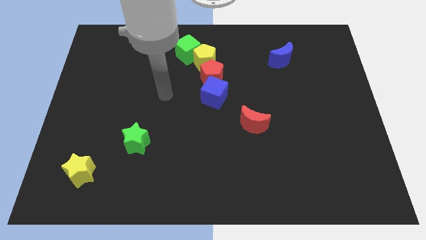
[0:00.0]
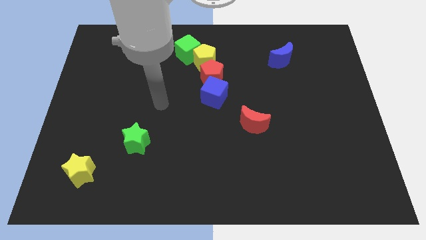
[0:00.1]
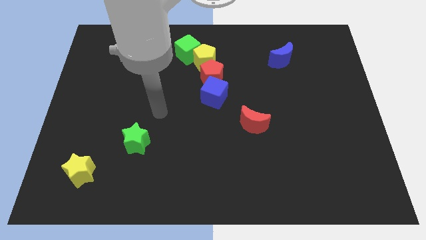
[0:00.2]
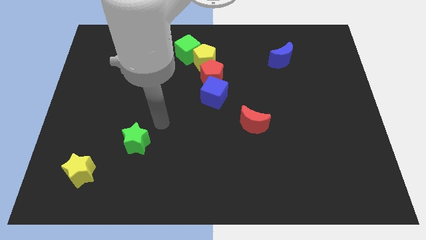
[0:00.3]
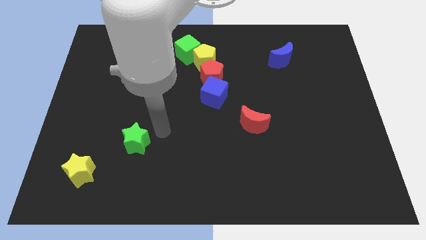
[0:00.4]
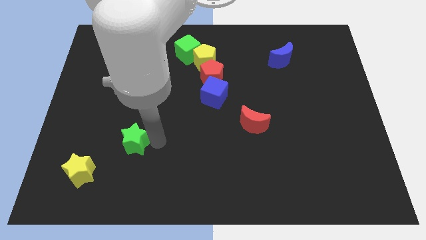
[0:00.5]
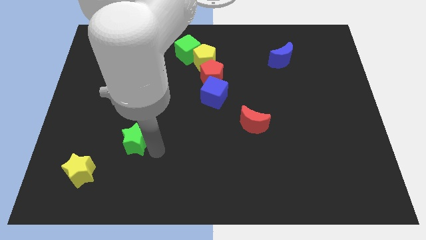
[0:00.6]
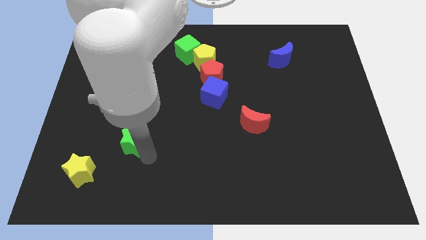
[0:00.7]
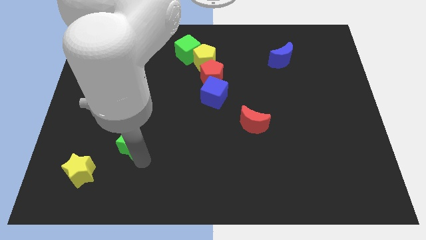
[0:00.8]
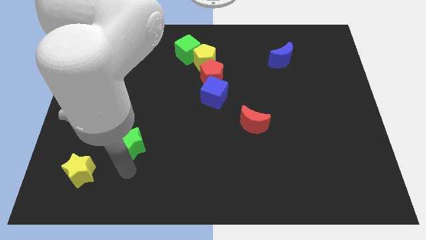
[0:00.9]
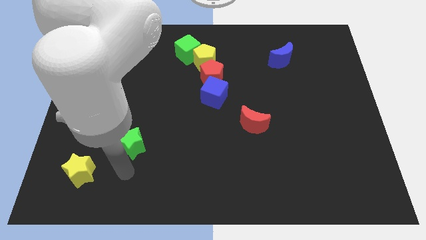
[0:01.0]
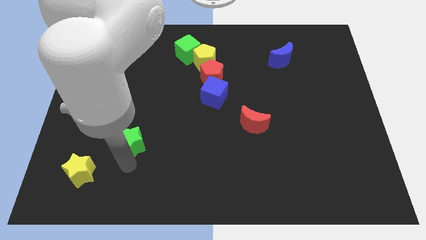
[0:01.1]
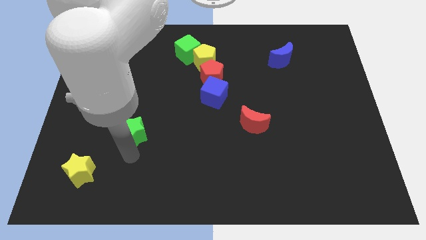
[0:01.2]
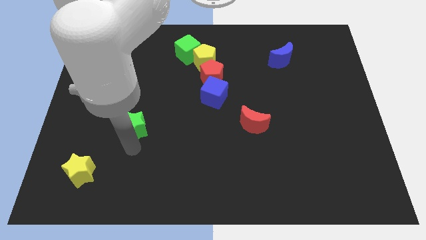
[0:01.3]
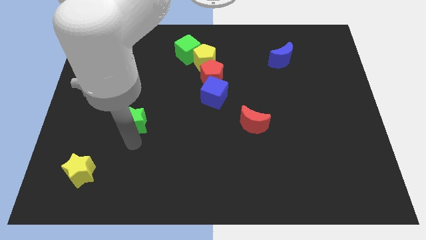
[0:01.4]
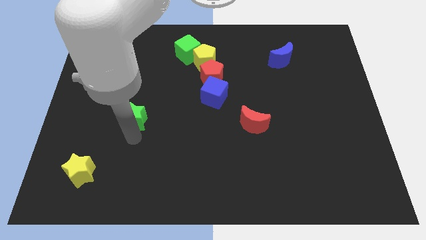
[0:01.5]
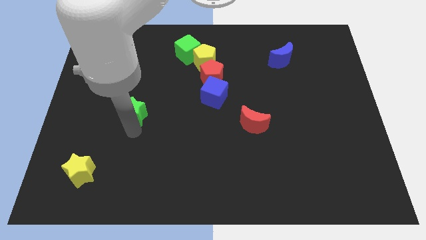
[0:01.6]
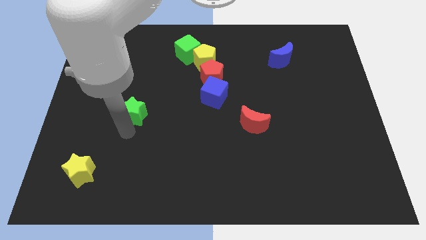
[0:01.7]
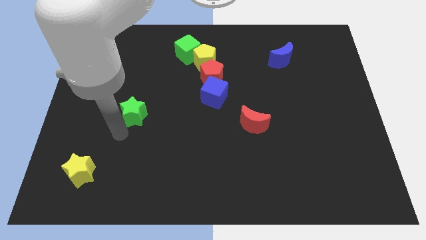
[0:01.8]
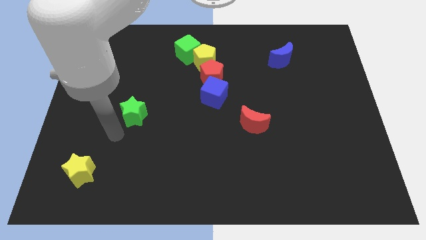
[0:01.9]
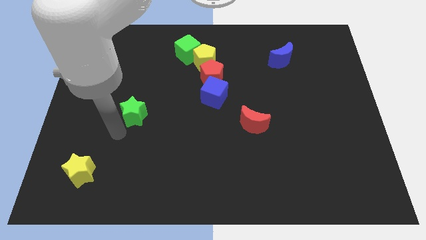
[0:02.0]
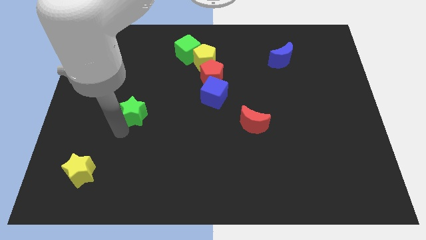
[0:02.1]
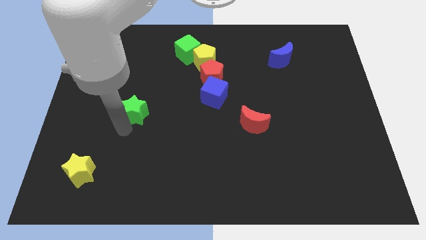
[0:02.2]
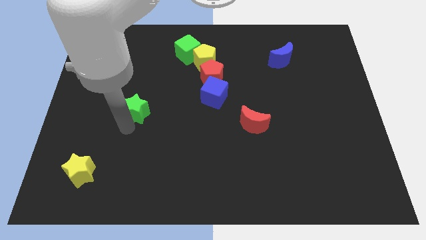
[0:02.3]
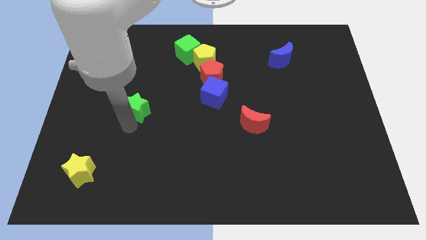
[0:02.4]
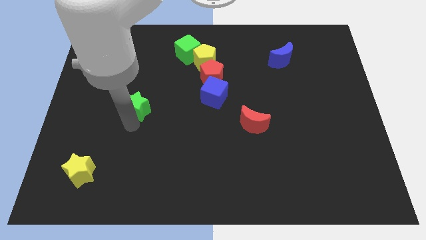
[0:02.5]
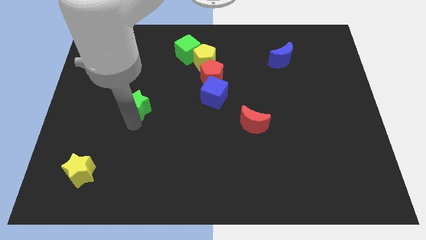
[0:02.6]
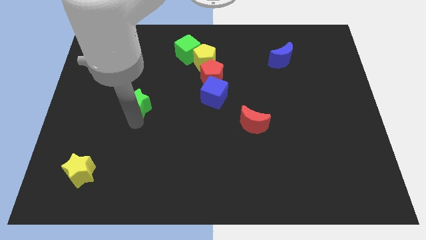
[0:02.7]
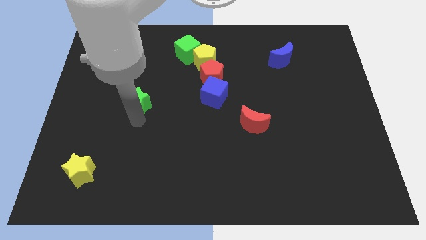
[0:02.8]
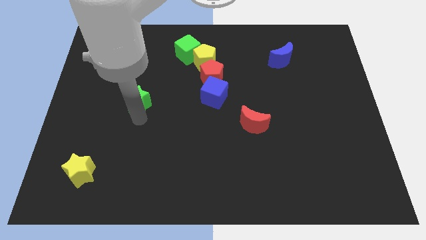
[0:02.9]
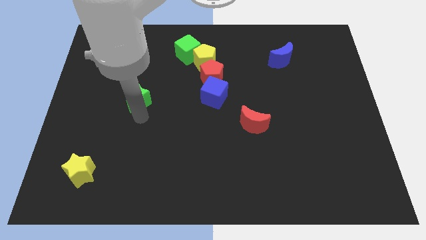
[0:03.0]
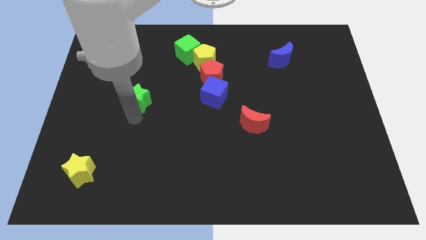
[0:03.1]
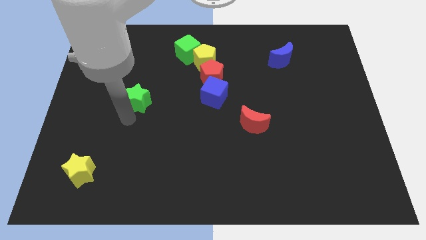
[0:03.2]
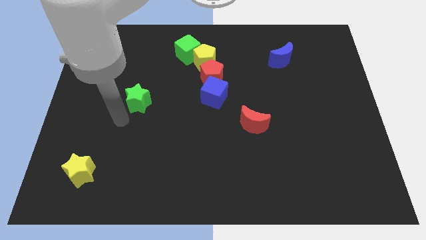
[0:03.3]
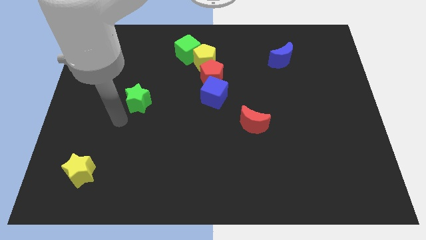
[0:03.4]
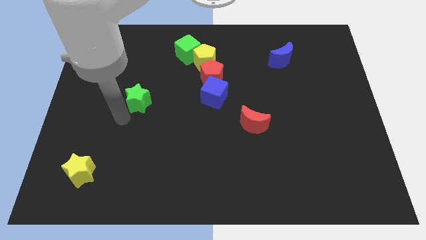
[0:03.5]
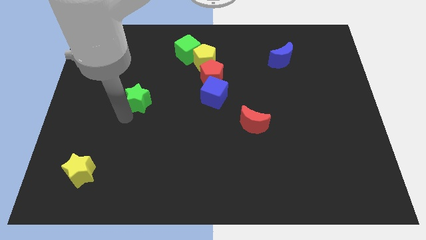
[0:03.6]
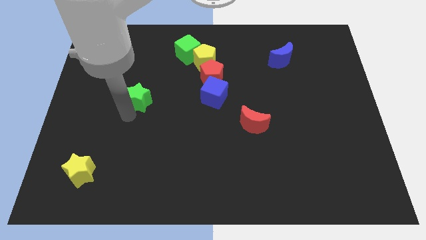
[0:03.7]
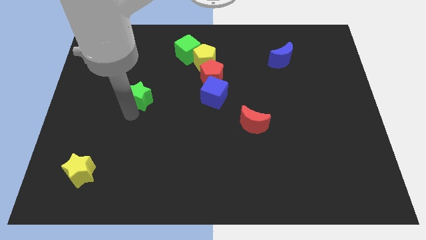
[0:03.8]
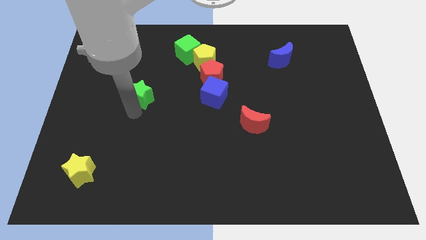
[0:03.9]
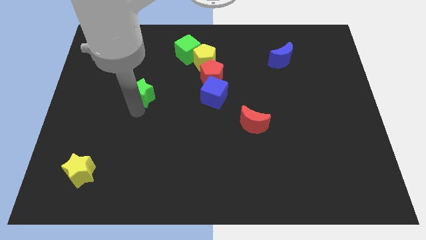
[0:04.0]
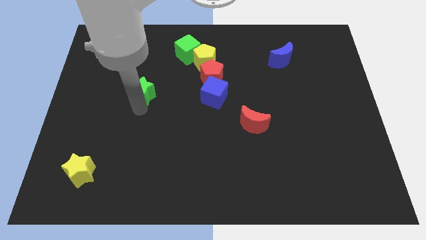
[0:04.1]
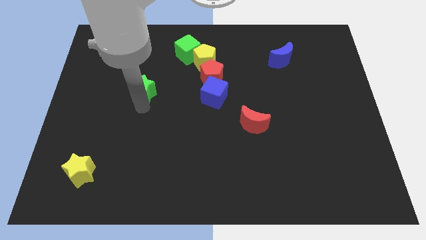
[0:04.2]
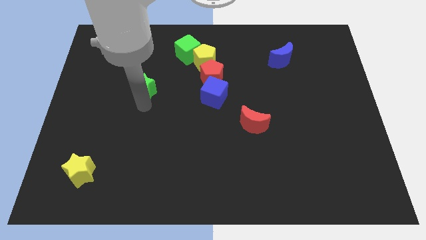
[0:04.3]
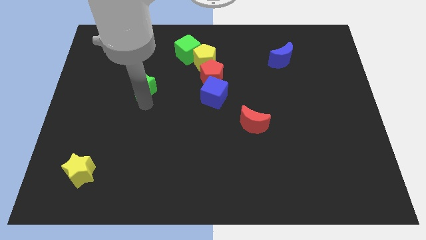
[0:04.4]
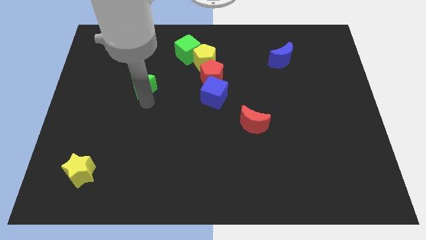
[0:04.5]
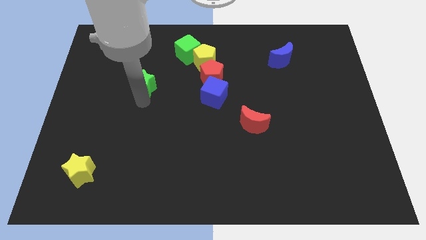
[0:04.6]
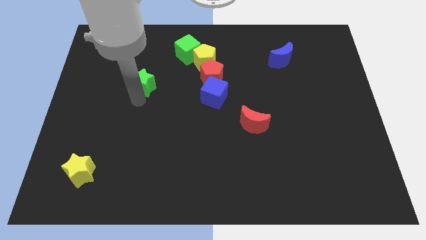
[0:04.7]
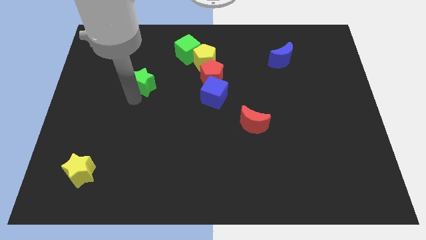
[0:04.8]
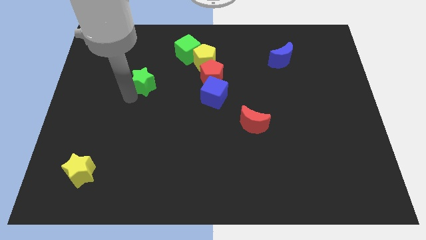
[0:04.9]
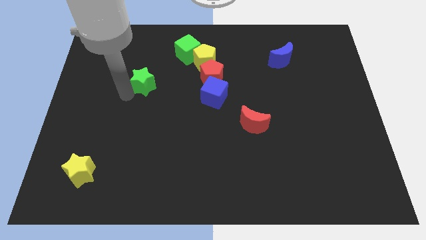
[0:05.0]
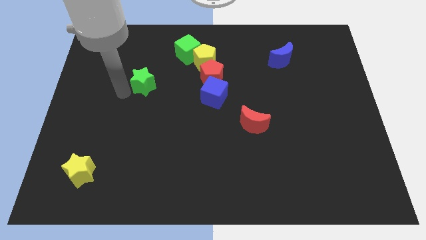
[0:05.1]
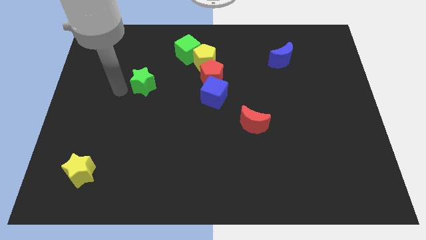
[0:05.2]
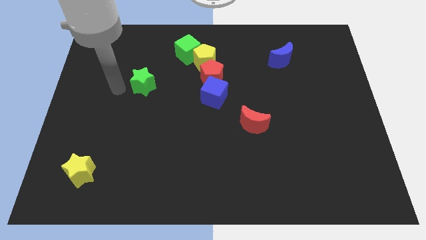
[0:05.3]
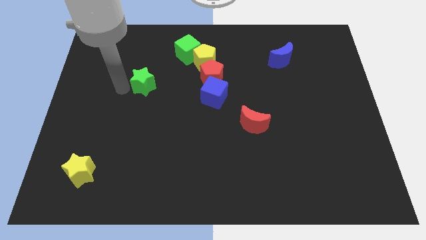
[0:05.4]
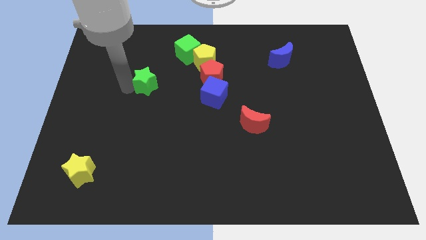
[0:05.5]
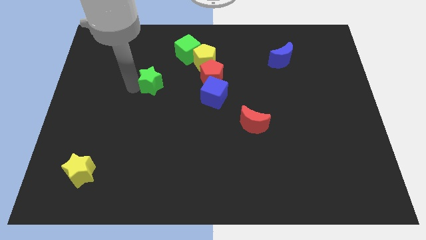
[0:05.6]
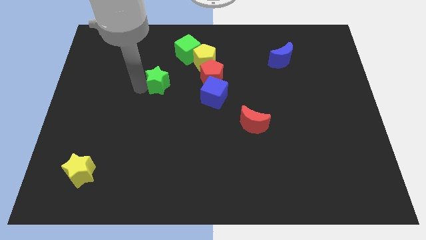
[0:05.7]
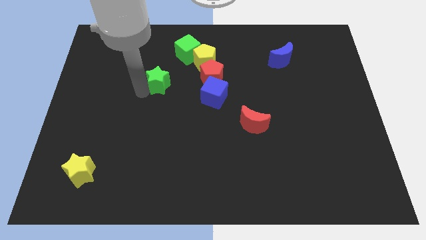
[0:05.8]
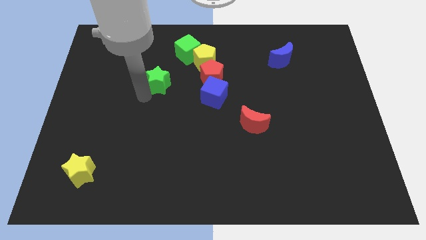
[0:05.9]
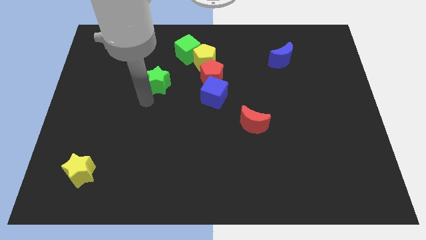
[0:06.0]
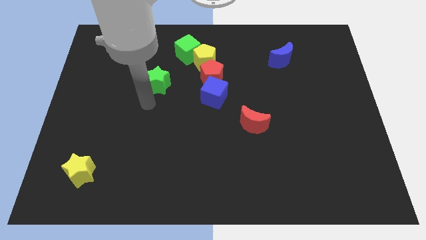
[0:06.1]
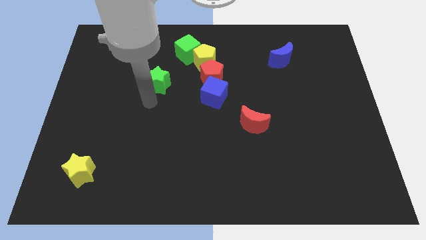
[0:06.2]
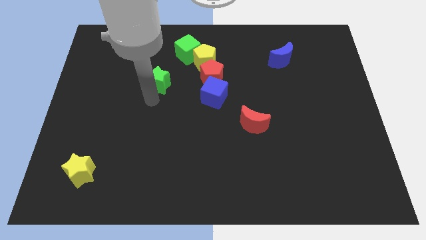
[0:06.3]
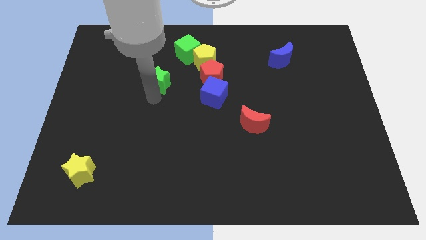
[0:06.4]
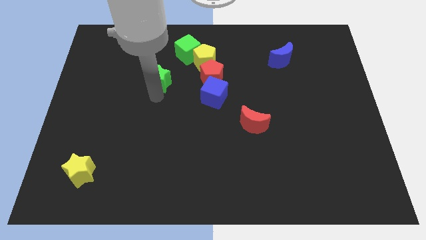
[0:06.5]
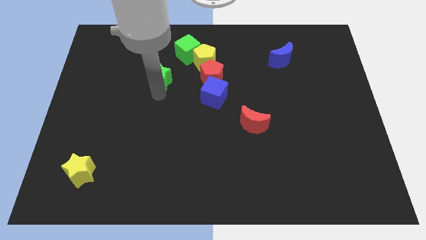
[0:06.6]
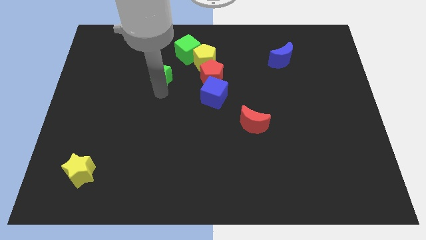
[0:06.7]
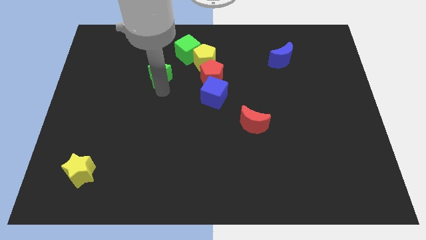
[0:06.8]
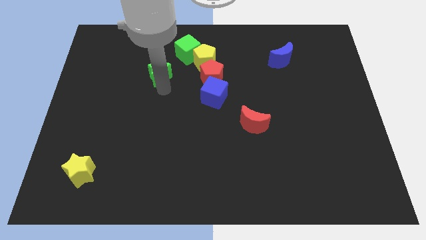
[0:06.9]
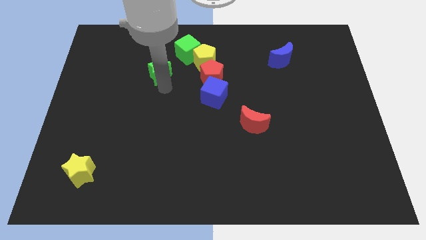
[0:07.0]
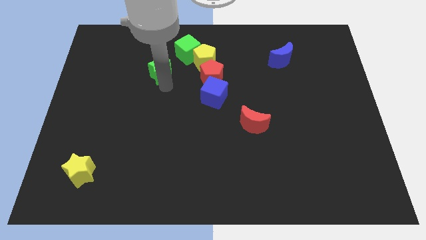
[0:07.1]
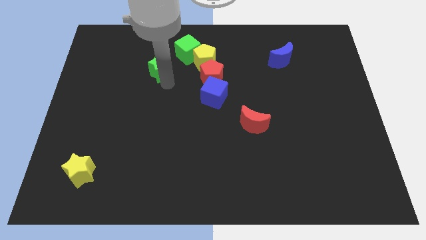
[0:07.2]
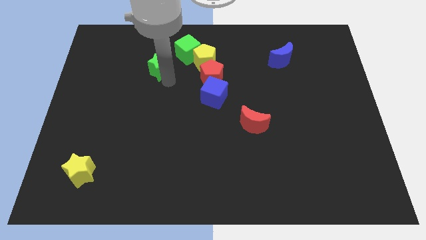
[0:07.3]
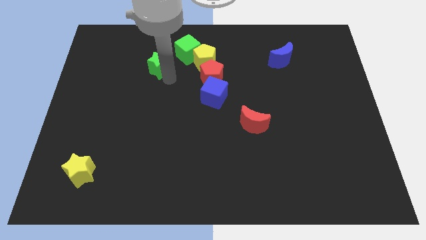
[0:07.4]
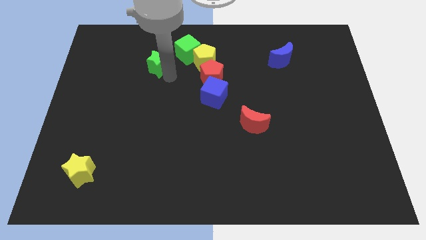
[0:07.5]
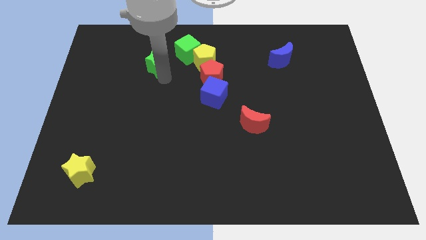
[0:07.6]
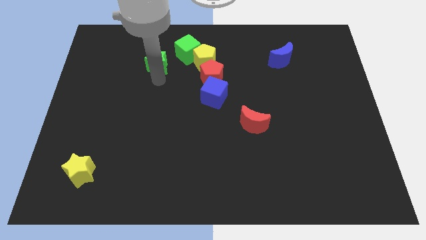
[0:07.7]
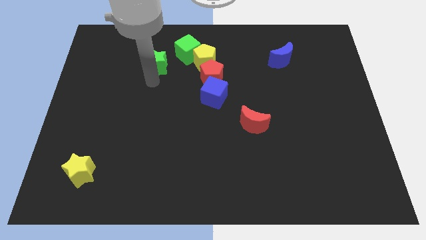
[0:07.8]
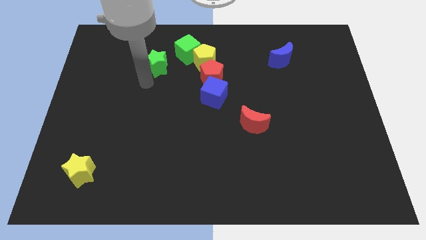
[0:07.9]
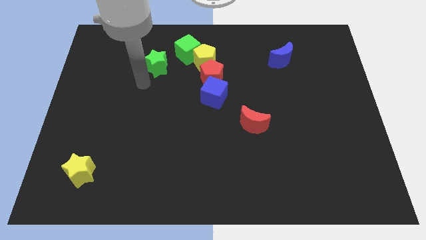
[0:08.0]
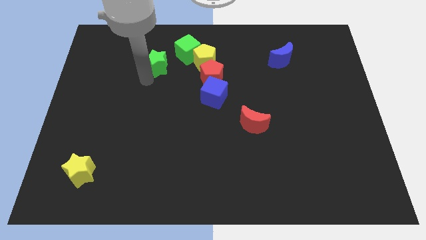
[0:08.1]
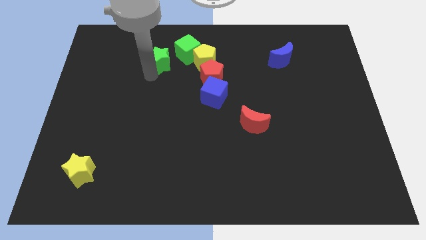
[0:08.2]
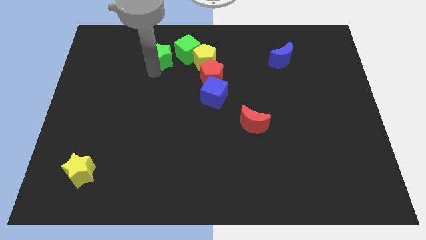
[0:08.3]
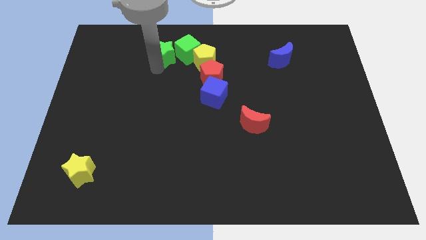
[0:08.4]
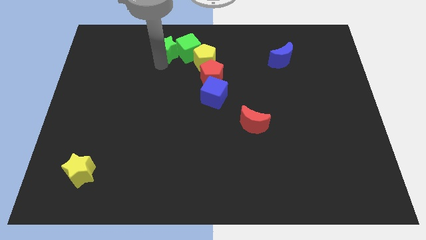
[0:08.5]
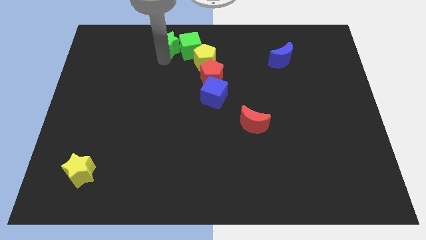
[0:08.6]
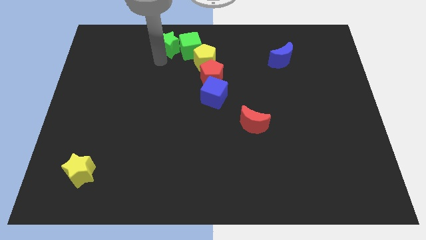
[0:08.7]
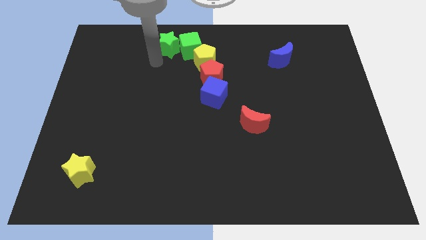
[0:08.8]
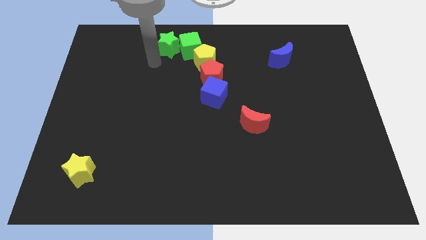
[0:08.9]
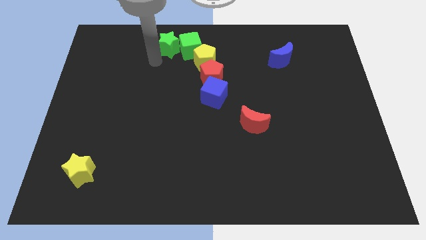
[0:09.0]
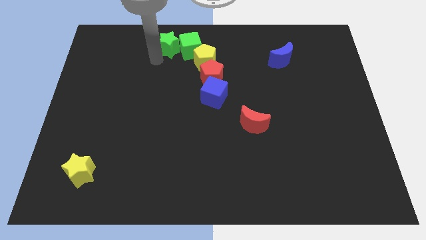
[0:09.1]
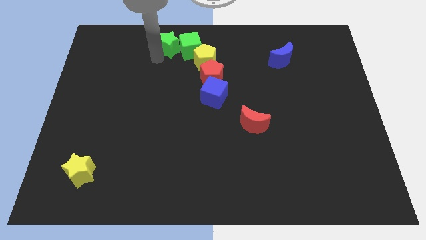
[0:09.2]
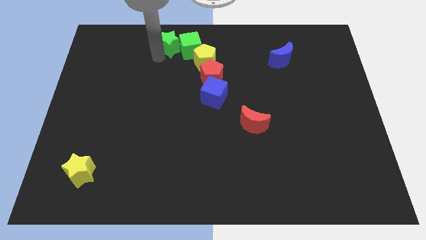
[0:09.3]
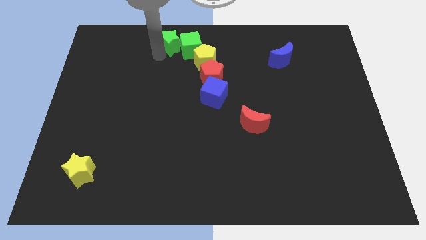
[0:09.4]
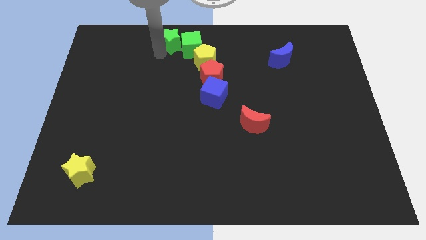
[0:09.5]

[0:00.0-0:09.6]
move the green star to the towards your base
